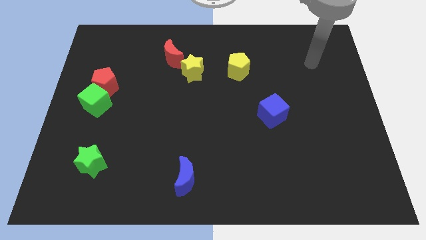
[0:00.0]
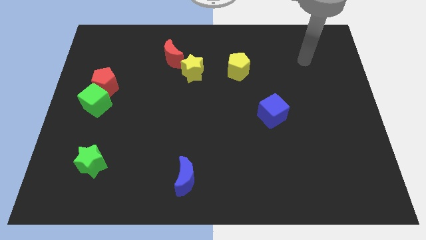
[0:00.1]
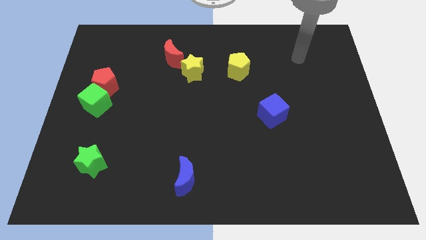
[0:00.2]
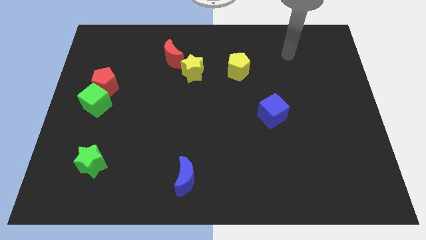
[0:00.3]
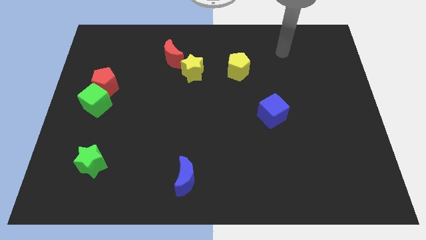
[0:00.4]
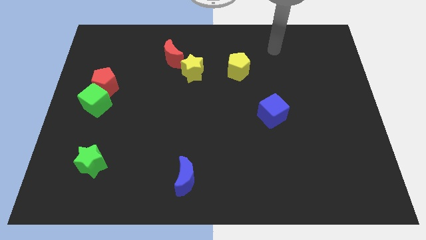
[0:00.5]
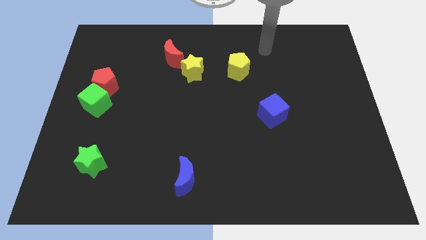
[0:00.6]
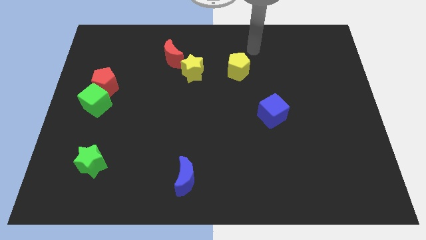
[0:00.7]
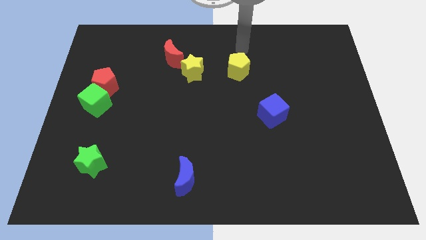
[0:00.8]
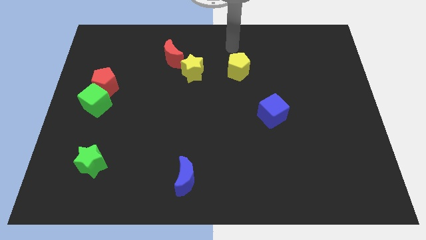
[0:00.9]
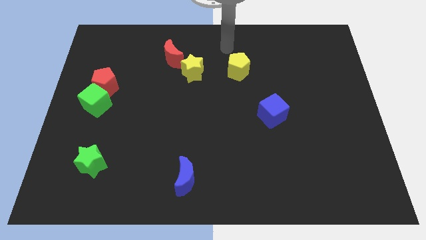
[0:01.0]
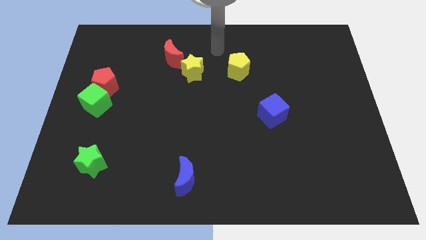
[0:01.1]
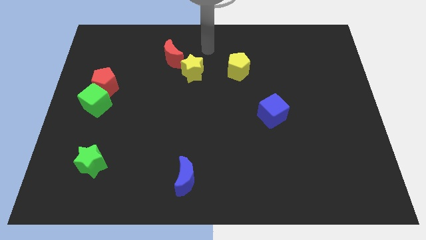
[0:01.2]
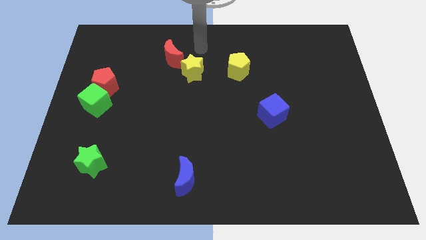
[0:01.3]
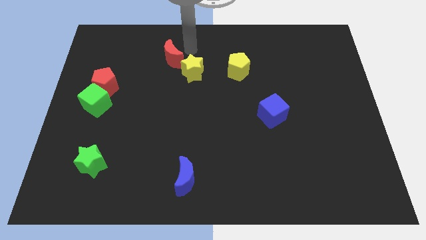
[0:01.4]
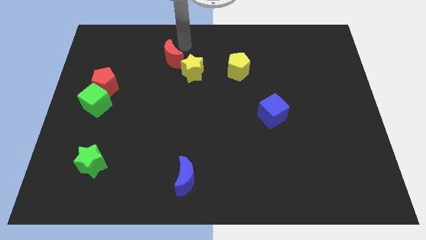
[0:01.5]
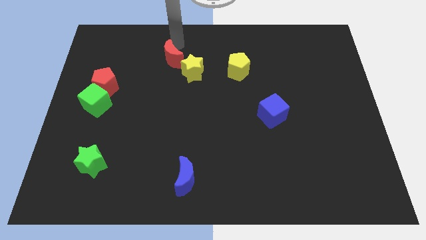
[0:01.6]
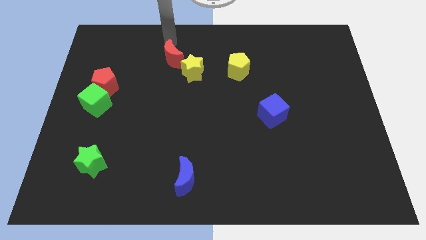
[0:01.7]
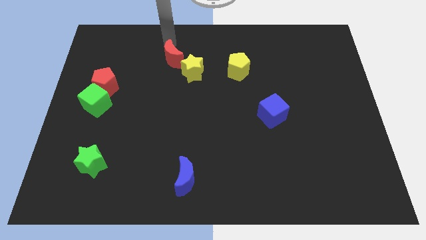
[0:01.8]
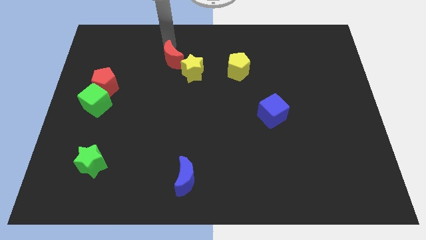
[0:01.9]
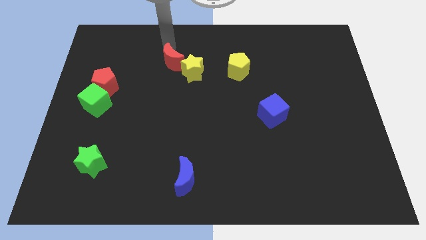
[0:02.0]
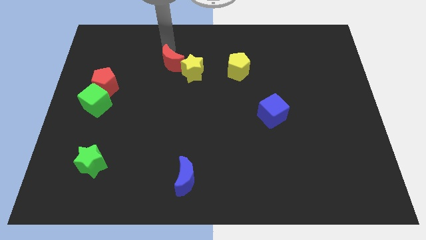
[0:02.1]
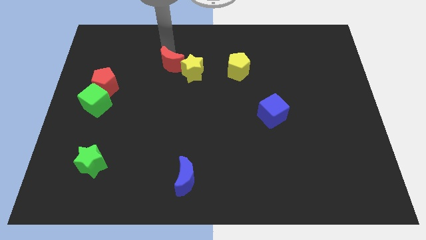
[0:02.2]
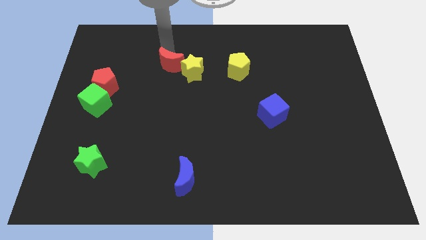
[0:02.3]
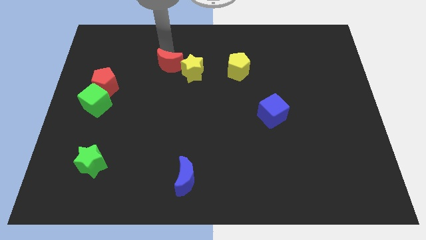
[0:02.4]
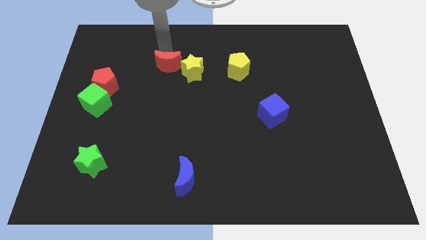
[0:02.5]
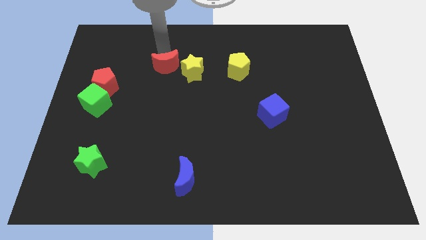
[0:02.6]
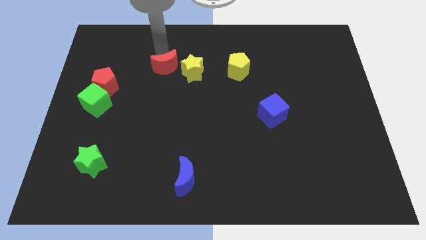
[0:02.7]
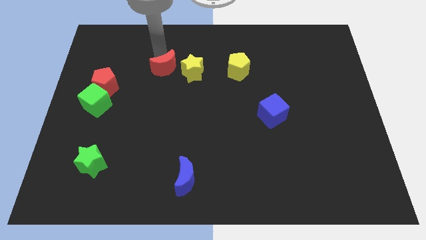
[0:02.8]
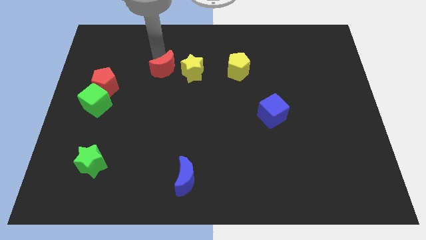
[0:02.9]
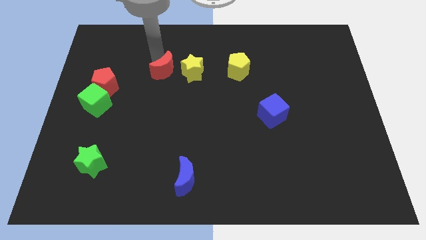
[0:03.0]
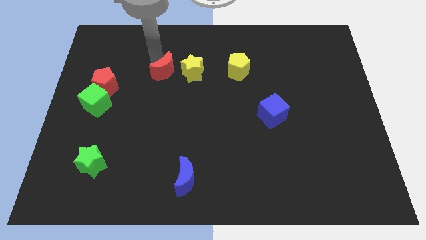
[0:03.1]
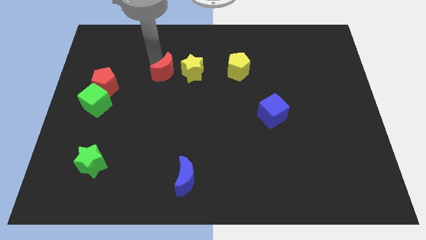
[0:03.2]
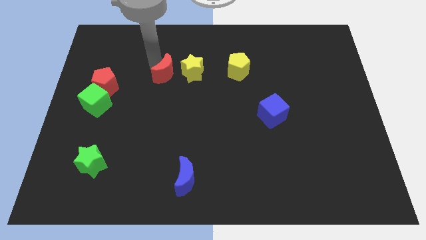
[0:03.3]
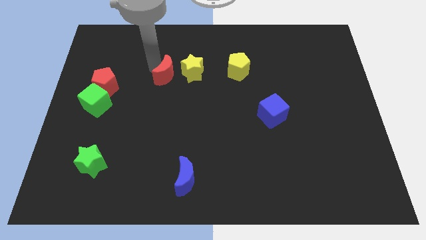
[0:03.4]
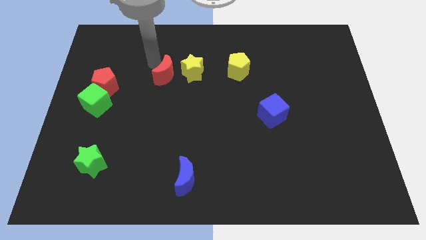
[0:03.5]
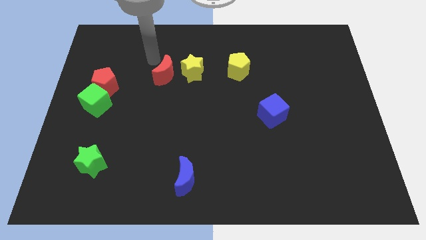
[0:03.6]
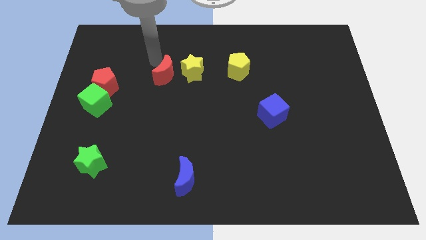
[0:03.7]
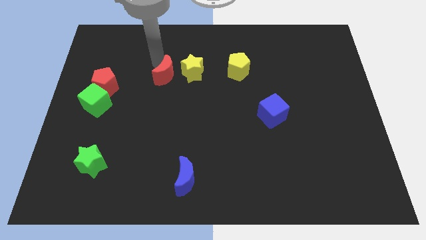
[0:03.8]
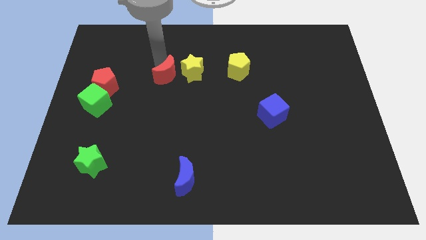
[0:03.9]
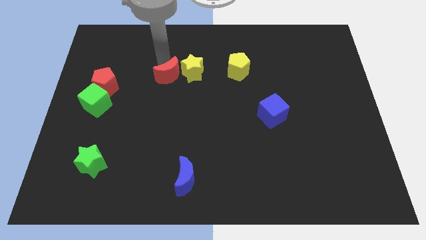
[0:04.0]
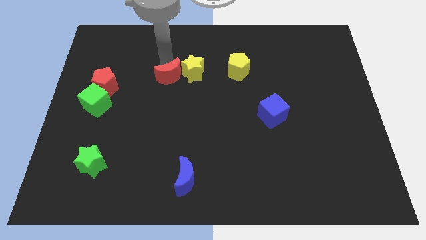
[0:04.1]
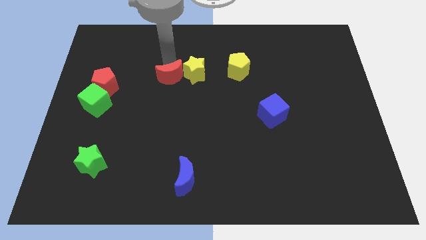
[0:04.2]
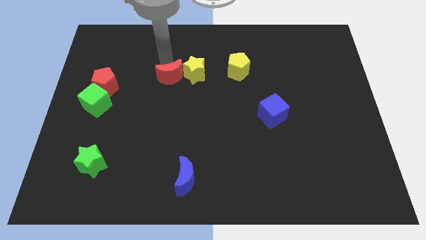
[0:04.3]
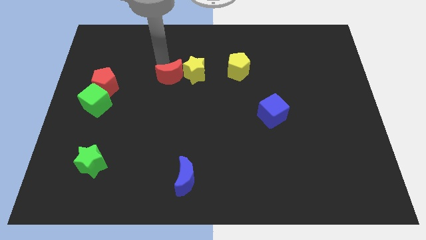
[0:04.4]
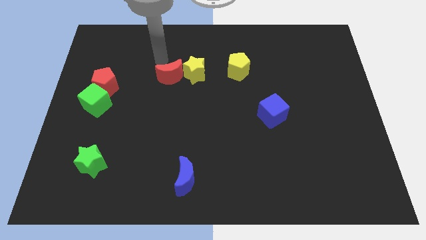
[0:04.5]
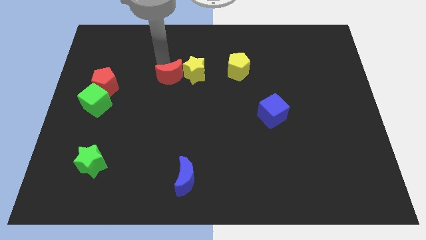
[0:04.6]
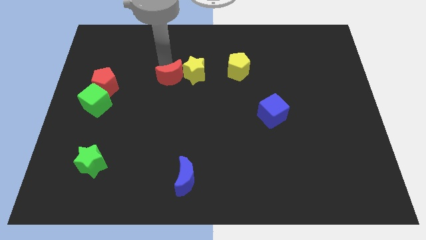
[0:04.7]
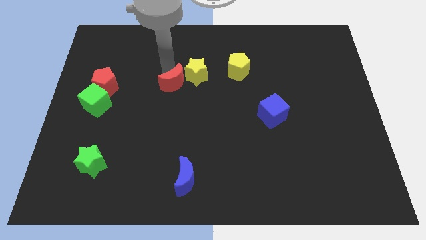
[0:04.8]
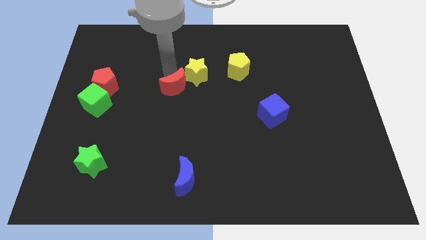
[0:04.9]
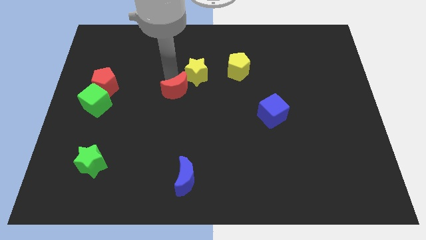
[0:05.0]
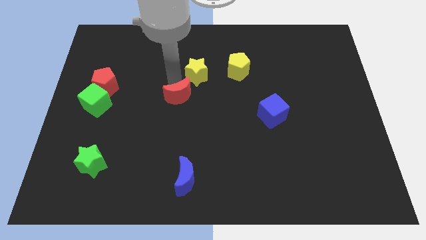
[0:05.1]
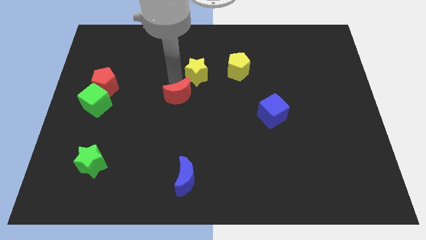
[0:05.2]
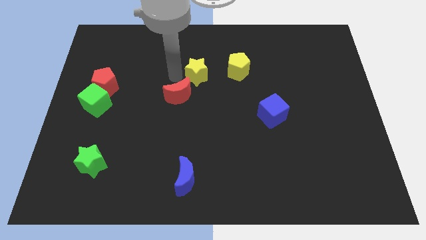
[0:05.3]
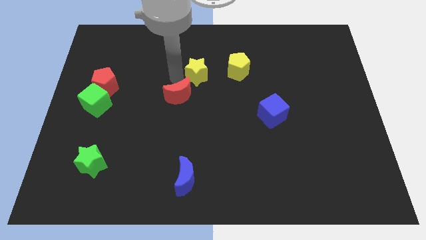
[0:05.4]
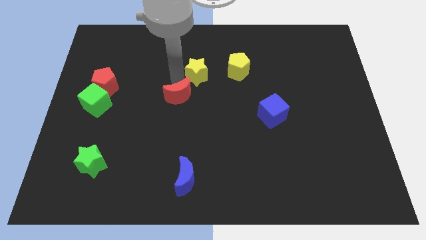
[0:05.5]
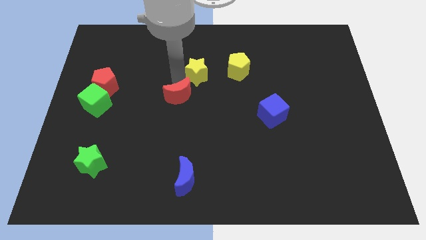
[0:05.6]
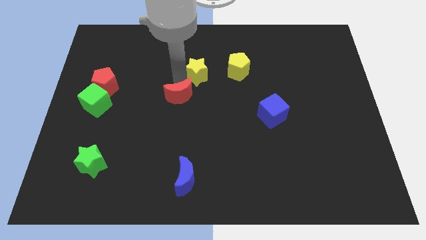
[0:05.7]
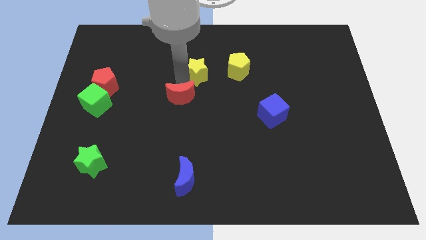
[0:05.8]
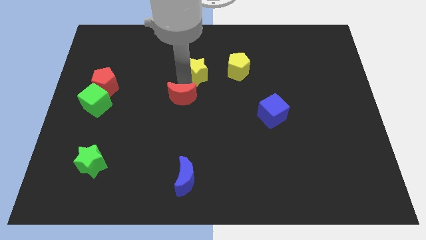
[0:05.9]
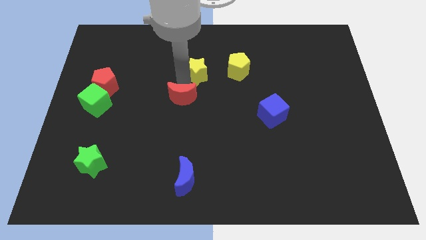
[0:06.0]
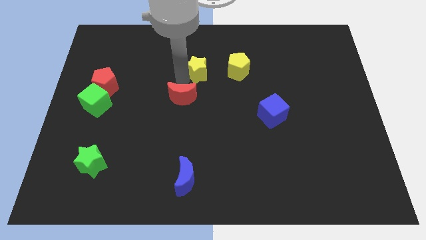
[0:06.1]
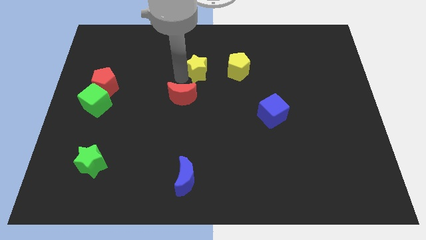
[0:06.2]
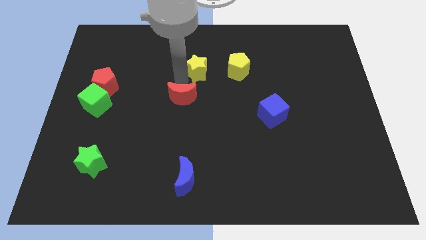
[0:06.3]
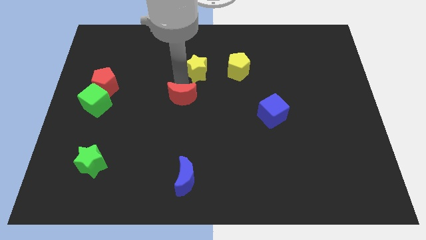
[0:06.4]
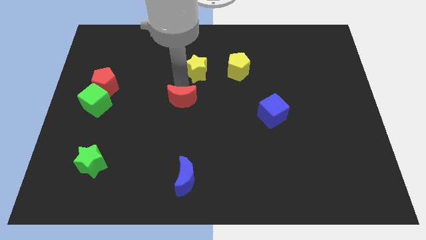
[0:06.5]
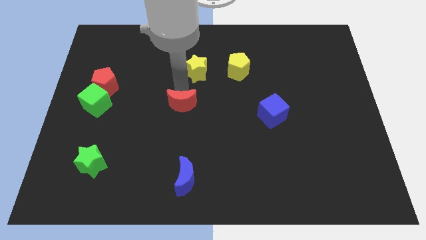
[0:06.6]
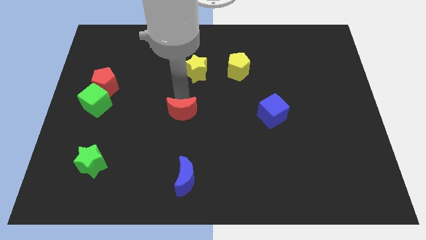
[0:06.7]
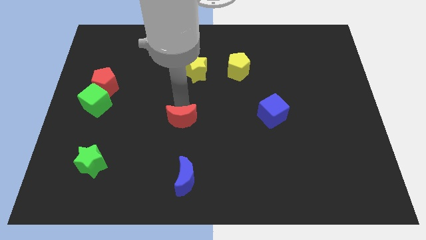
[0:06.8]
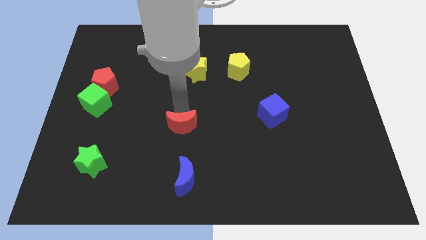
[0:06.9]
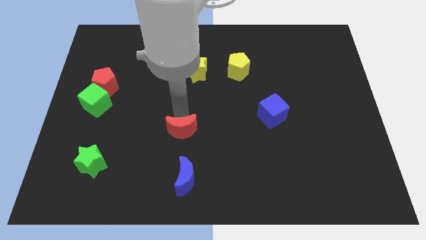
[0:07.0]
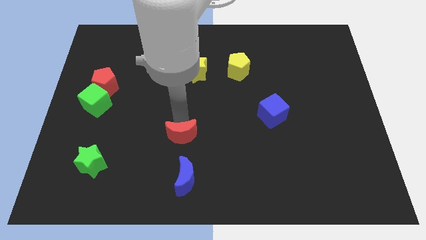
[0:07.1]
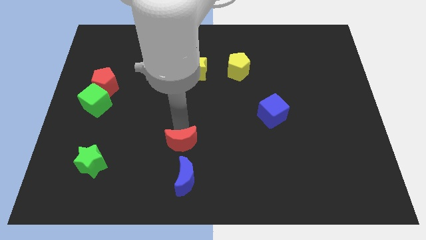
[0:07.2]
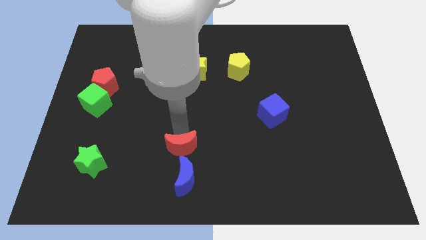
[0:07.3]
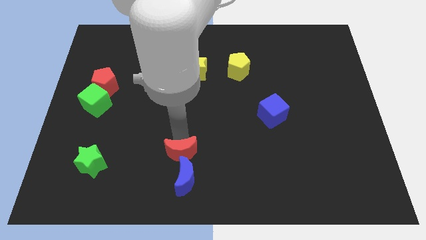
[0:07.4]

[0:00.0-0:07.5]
move the red moon to the blue moon

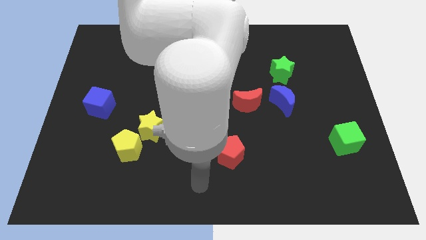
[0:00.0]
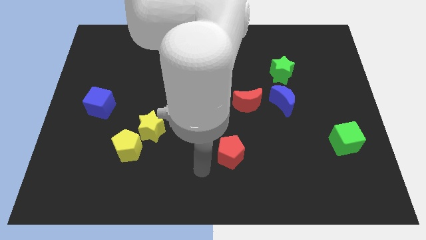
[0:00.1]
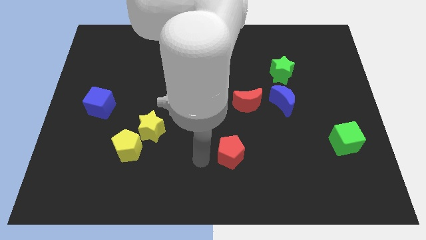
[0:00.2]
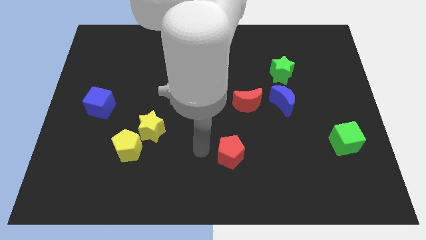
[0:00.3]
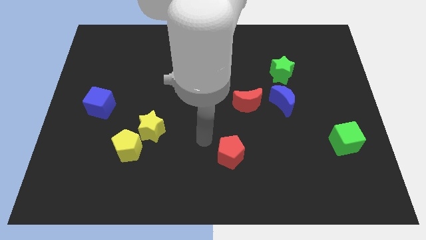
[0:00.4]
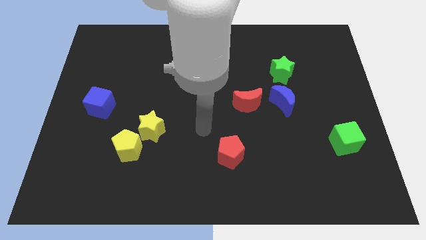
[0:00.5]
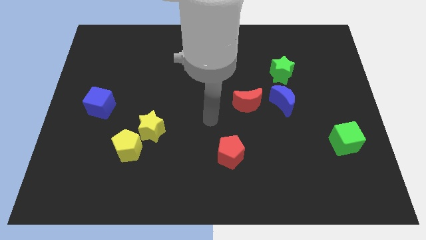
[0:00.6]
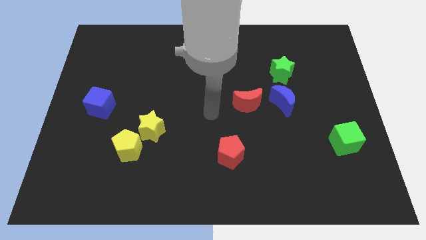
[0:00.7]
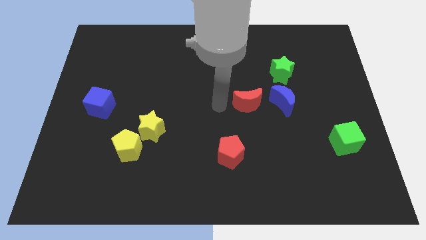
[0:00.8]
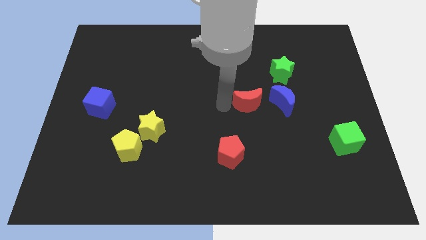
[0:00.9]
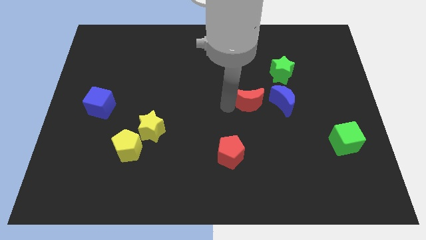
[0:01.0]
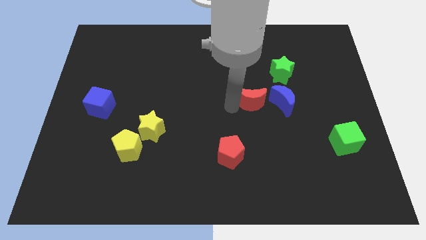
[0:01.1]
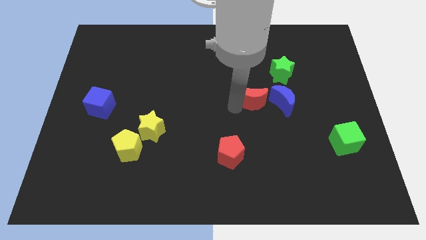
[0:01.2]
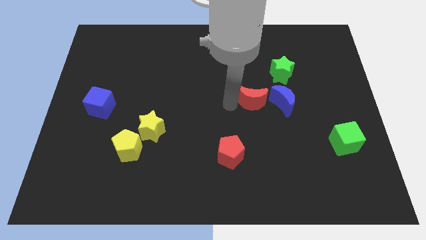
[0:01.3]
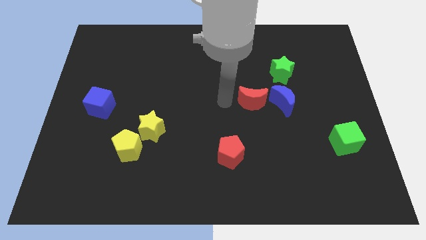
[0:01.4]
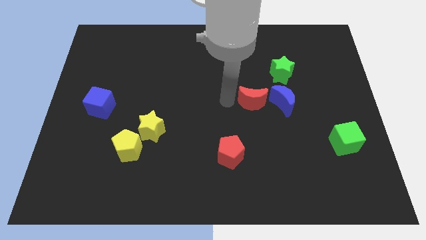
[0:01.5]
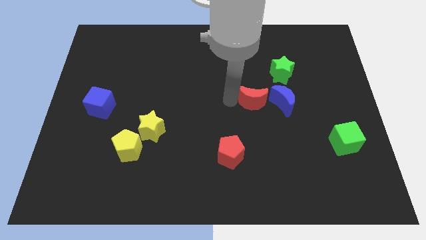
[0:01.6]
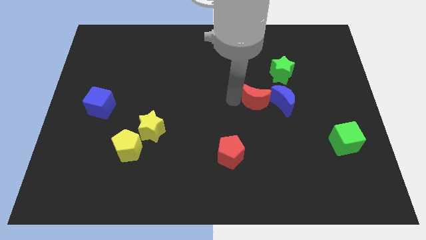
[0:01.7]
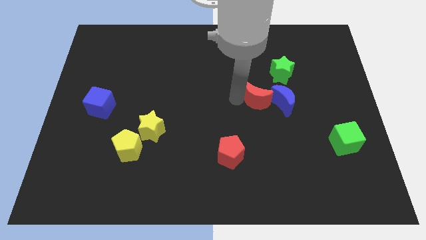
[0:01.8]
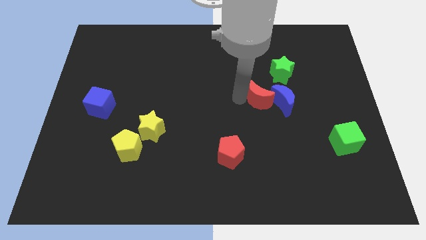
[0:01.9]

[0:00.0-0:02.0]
put the red moon towards the blue moon
